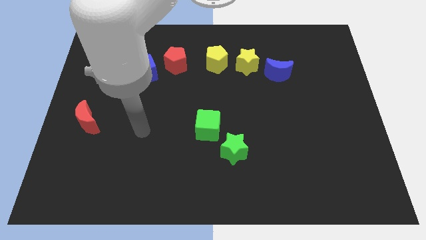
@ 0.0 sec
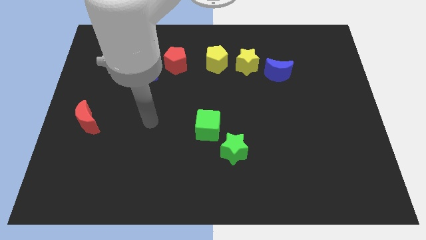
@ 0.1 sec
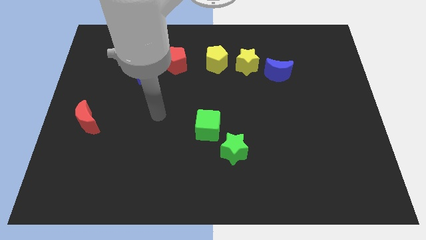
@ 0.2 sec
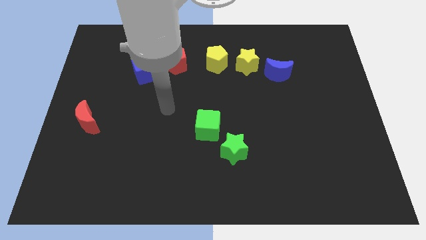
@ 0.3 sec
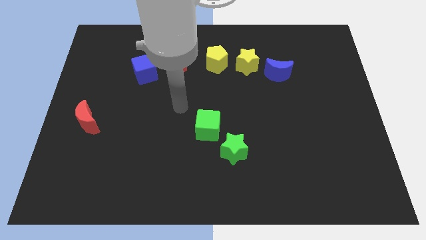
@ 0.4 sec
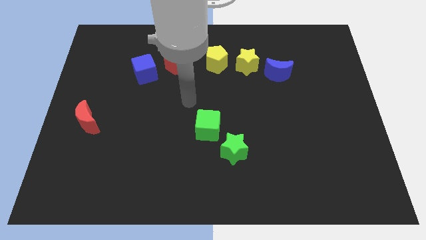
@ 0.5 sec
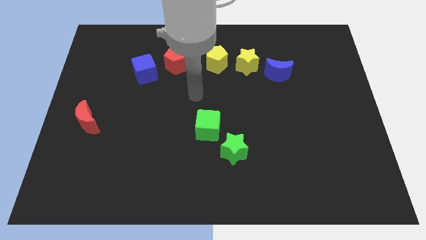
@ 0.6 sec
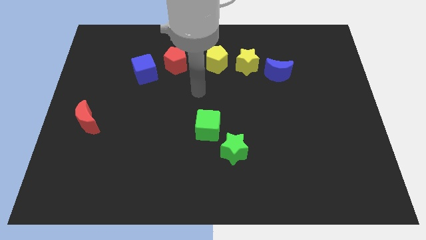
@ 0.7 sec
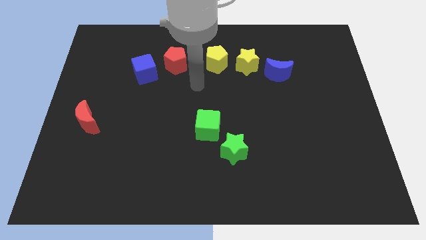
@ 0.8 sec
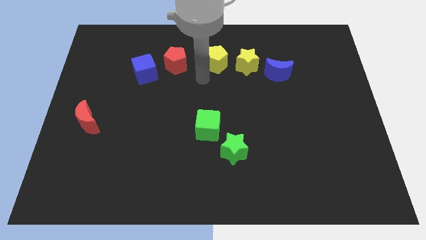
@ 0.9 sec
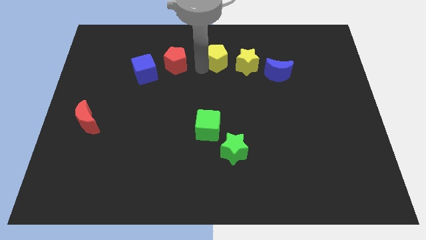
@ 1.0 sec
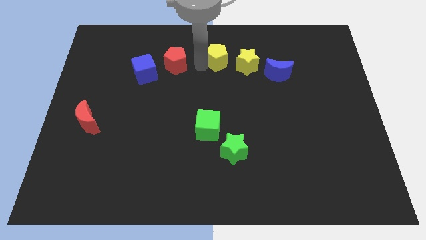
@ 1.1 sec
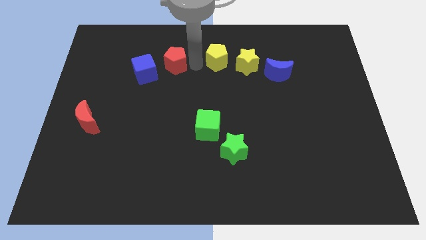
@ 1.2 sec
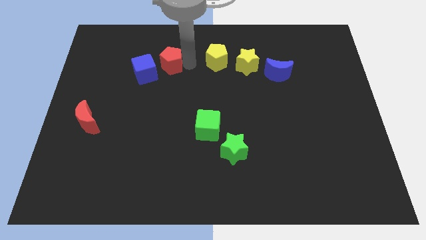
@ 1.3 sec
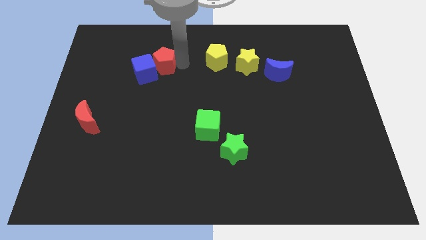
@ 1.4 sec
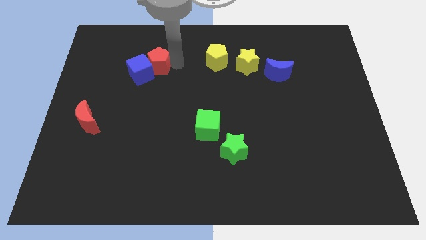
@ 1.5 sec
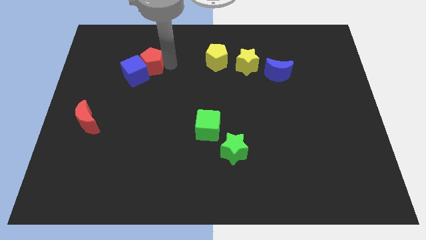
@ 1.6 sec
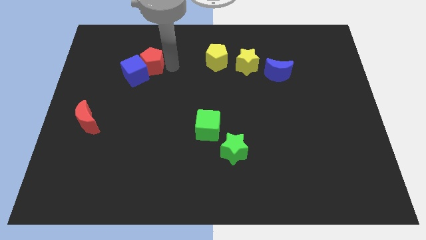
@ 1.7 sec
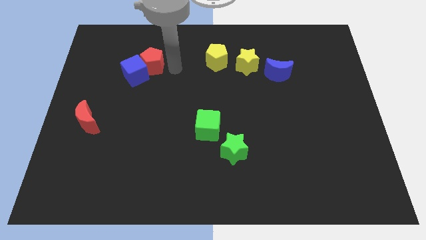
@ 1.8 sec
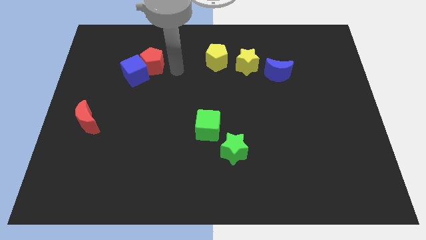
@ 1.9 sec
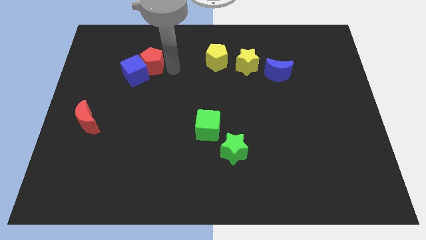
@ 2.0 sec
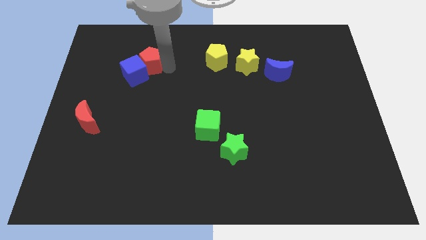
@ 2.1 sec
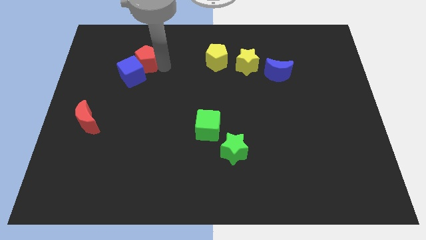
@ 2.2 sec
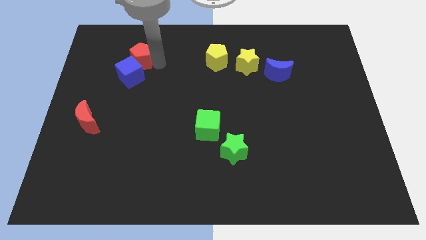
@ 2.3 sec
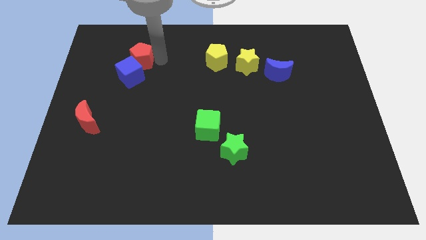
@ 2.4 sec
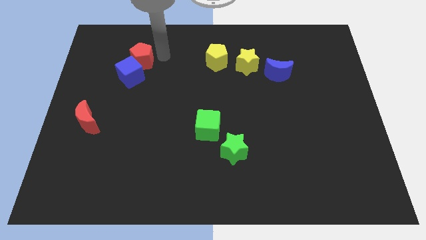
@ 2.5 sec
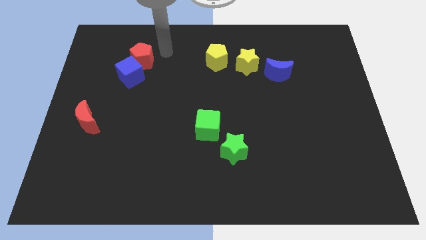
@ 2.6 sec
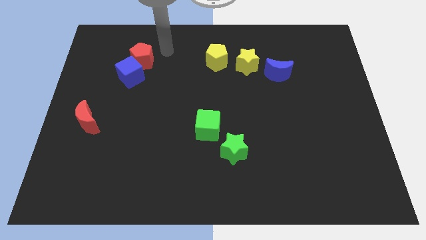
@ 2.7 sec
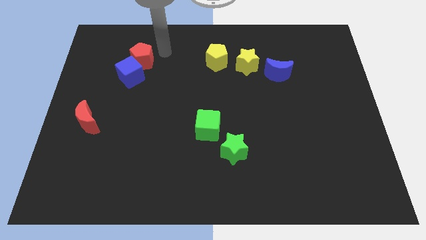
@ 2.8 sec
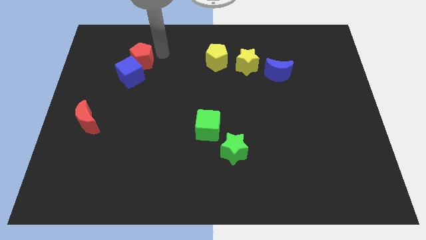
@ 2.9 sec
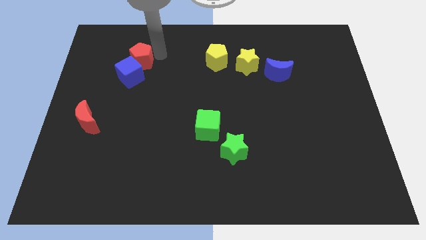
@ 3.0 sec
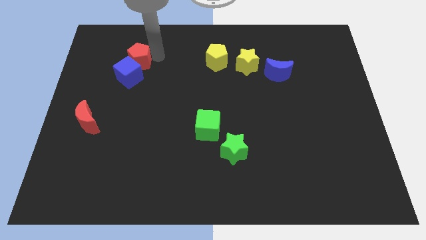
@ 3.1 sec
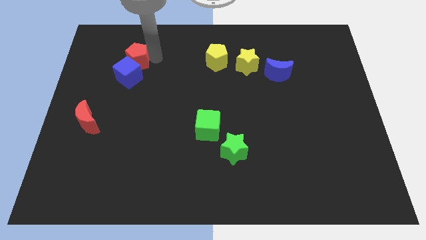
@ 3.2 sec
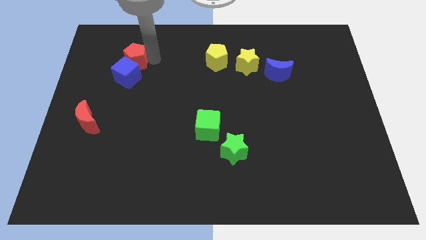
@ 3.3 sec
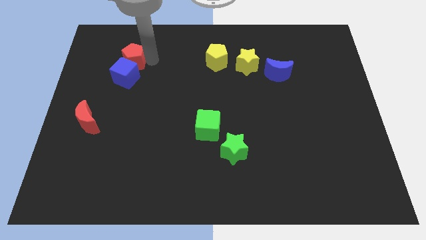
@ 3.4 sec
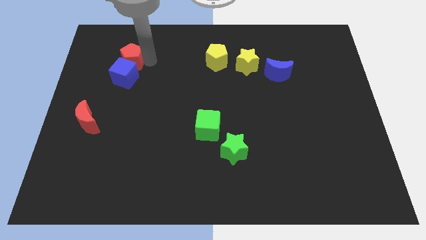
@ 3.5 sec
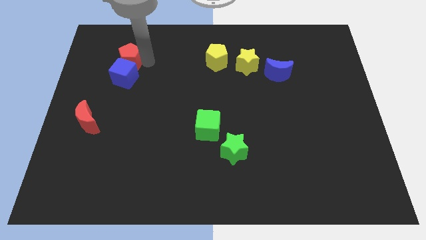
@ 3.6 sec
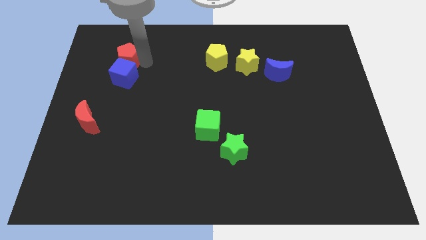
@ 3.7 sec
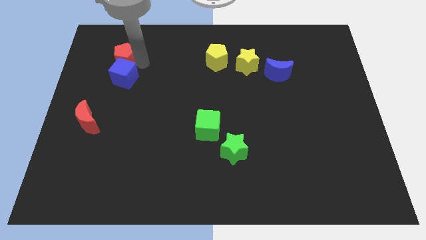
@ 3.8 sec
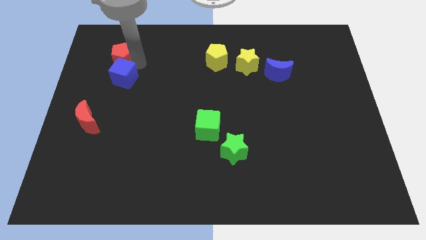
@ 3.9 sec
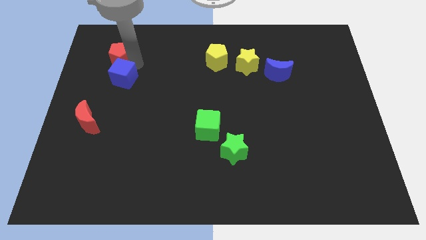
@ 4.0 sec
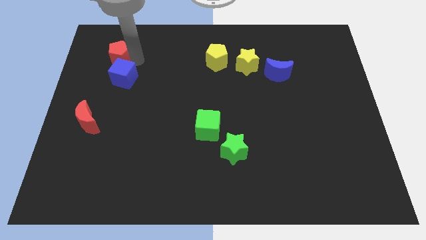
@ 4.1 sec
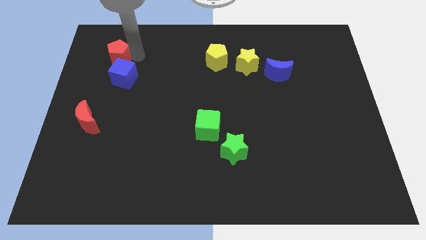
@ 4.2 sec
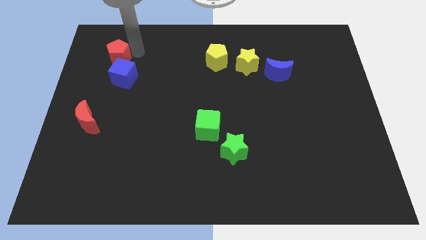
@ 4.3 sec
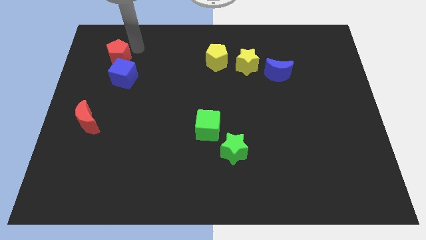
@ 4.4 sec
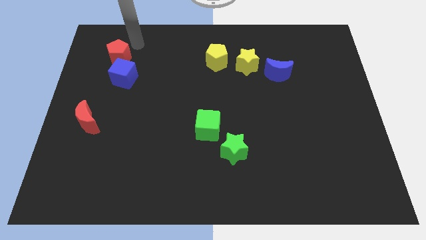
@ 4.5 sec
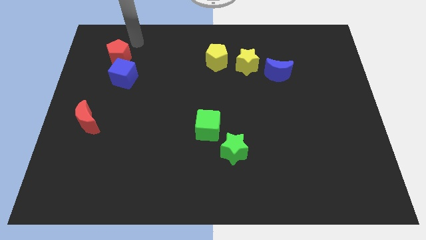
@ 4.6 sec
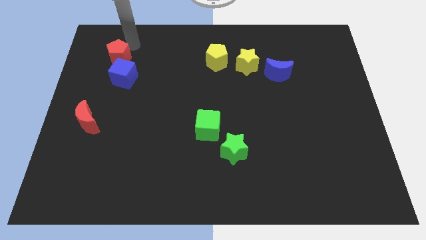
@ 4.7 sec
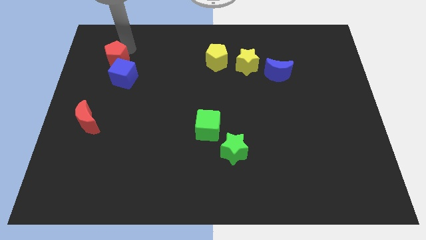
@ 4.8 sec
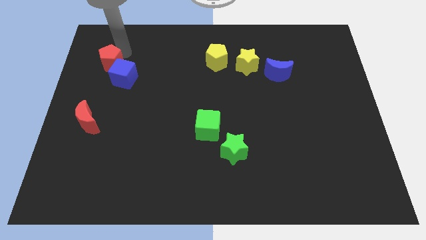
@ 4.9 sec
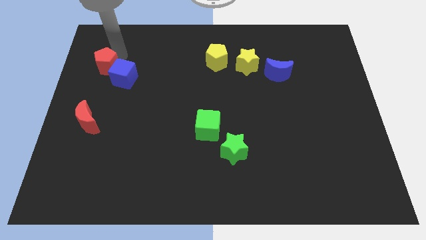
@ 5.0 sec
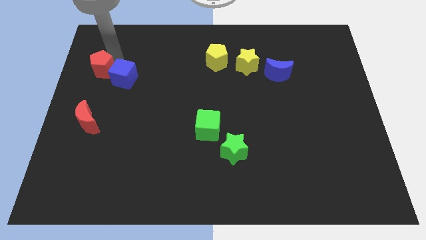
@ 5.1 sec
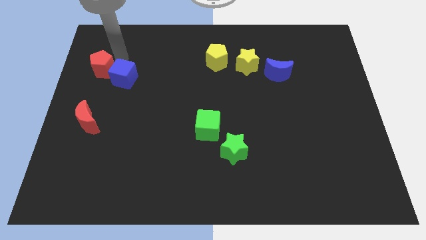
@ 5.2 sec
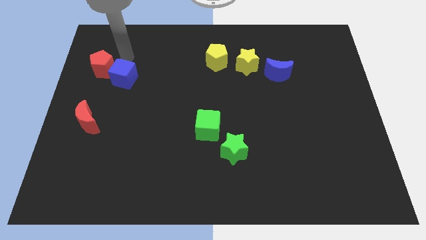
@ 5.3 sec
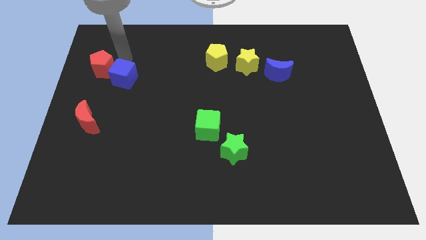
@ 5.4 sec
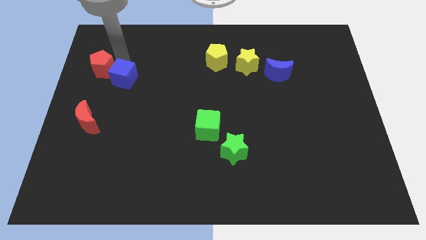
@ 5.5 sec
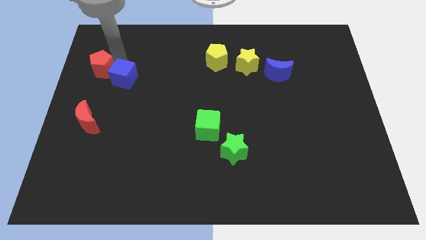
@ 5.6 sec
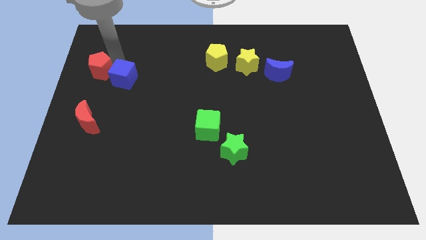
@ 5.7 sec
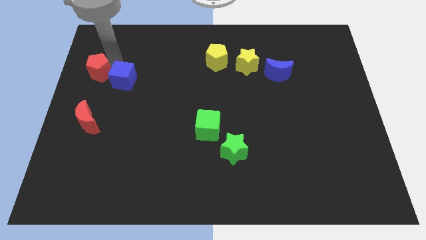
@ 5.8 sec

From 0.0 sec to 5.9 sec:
move the red pentagon to the left side of the board
